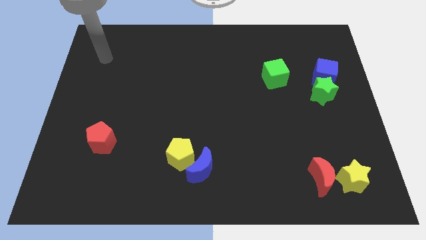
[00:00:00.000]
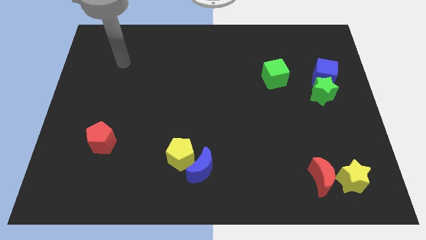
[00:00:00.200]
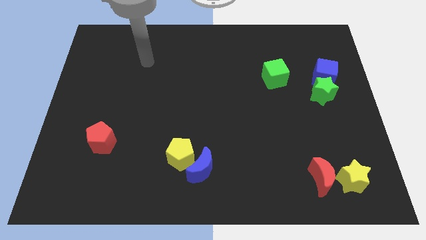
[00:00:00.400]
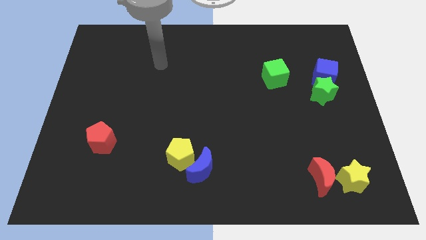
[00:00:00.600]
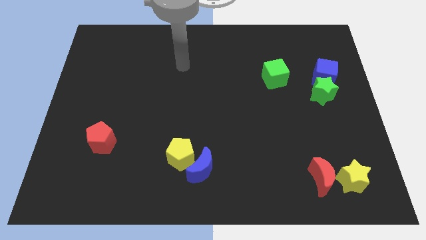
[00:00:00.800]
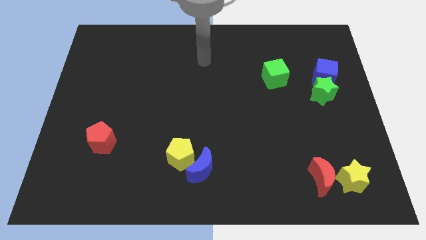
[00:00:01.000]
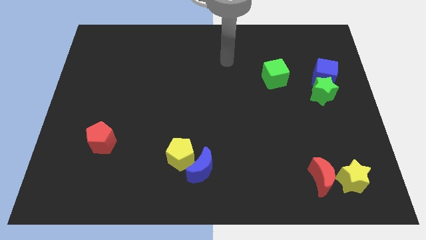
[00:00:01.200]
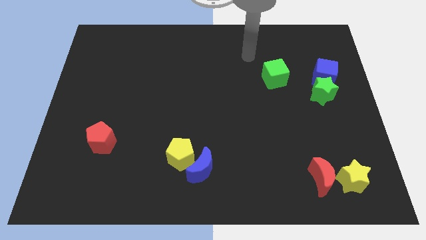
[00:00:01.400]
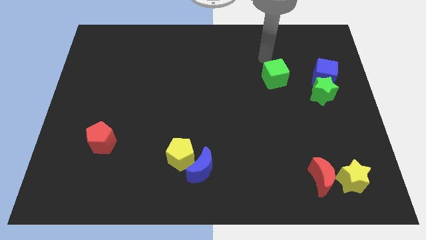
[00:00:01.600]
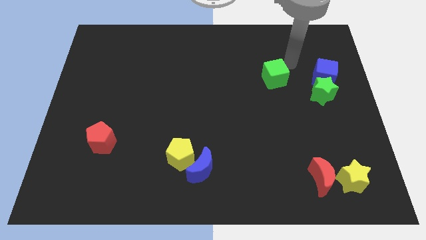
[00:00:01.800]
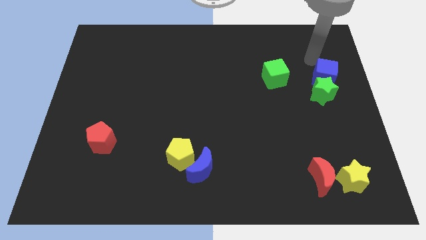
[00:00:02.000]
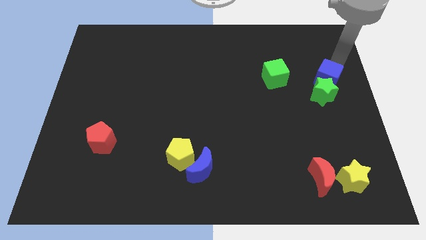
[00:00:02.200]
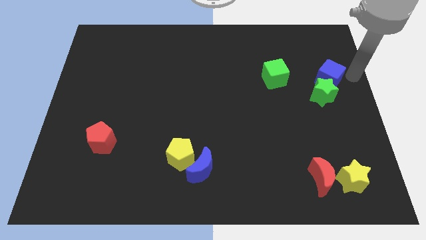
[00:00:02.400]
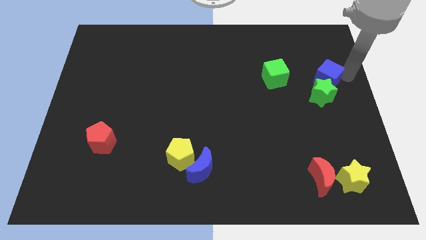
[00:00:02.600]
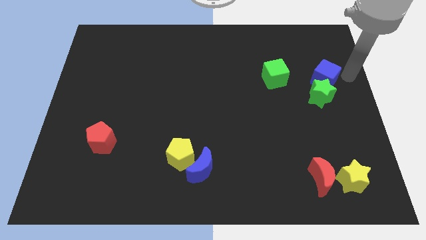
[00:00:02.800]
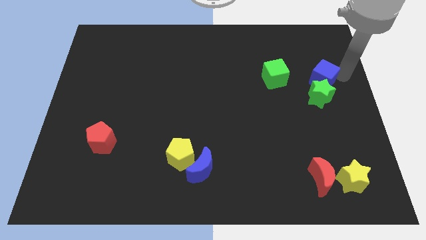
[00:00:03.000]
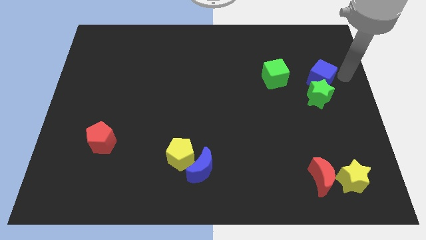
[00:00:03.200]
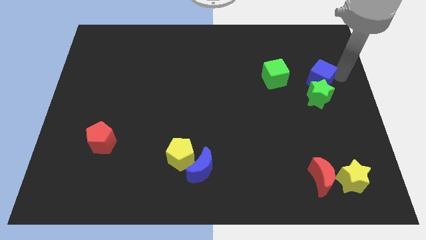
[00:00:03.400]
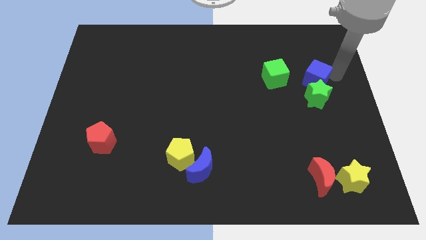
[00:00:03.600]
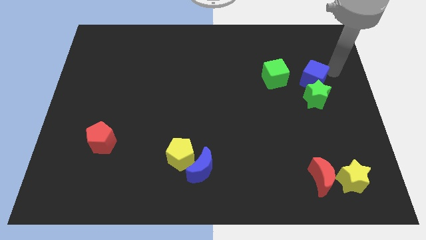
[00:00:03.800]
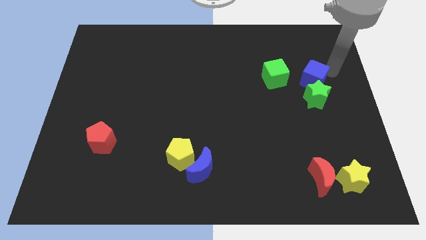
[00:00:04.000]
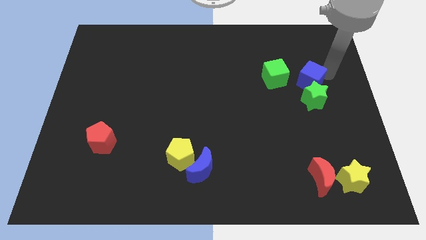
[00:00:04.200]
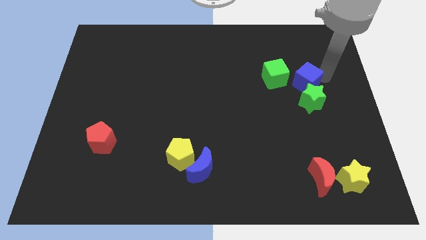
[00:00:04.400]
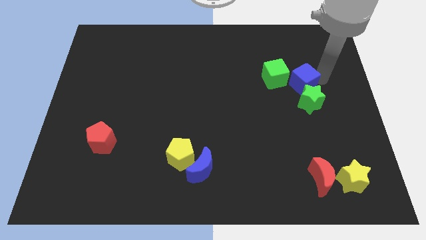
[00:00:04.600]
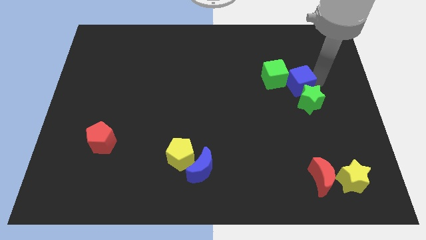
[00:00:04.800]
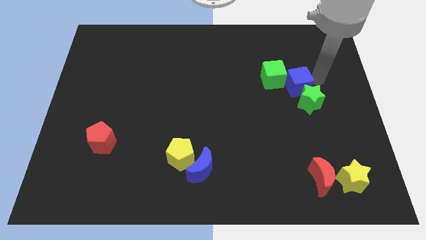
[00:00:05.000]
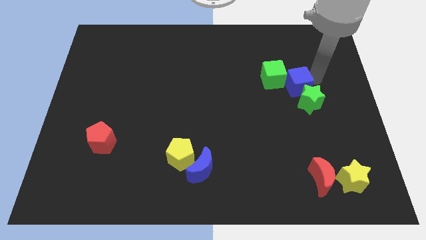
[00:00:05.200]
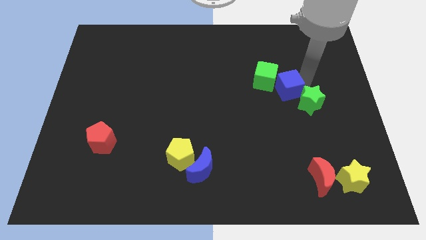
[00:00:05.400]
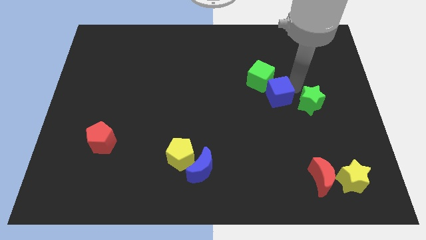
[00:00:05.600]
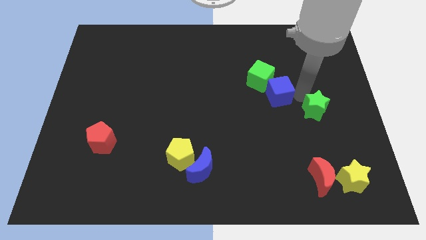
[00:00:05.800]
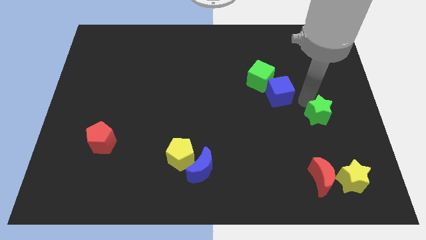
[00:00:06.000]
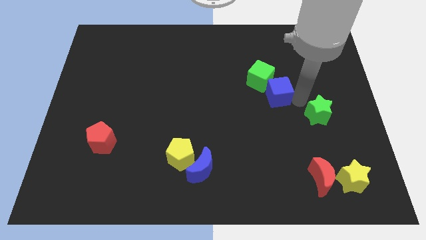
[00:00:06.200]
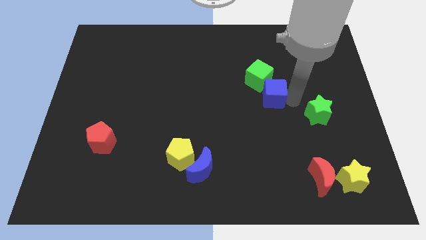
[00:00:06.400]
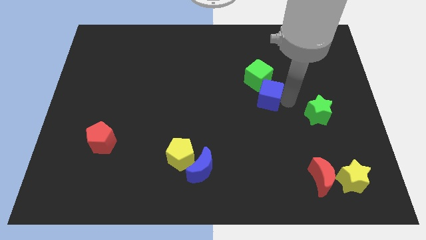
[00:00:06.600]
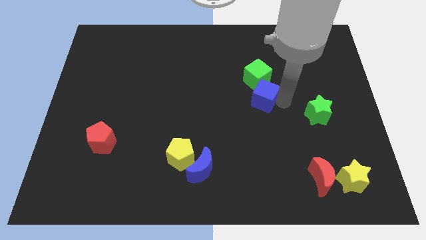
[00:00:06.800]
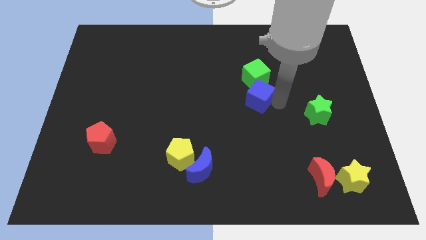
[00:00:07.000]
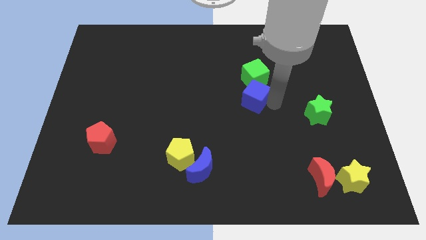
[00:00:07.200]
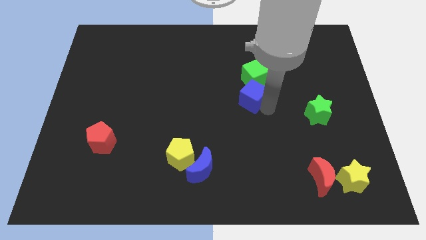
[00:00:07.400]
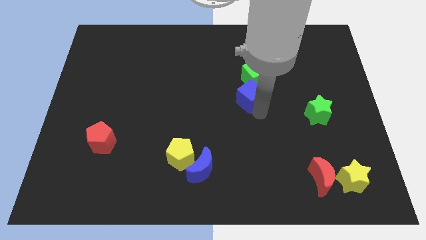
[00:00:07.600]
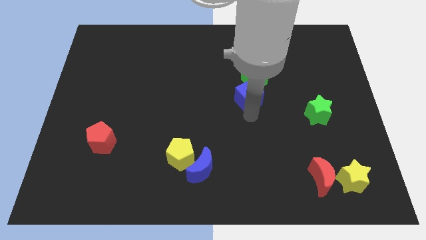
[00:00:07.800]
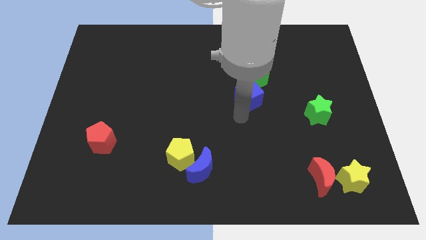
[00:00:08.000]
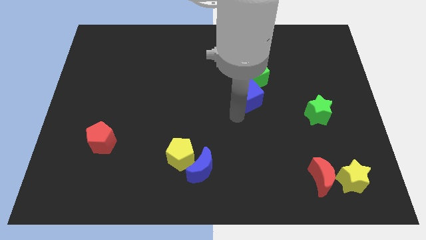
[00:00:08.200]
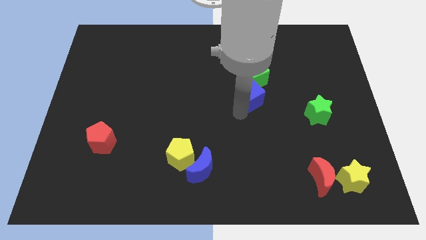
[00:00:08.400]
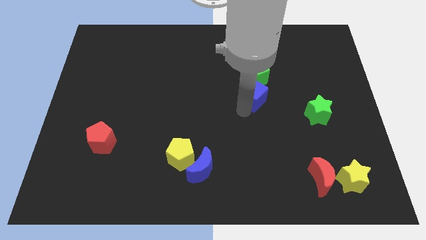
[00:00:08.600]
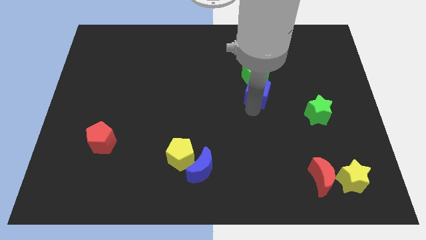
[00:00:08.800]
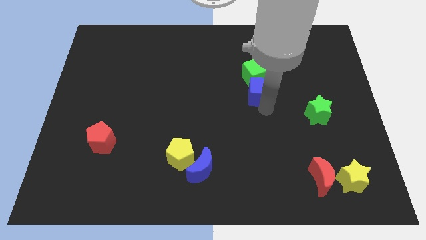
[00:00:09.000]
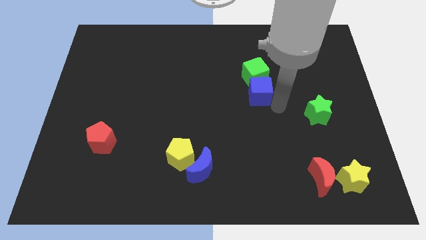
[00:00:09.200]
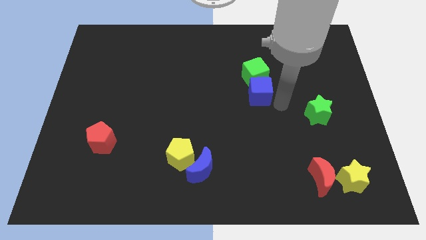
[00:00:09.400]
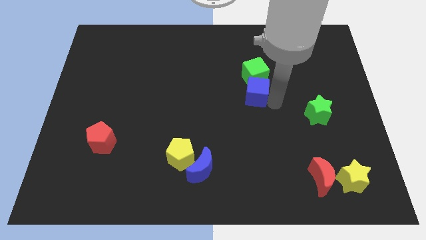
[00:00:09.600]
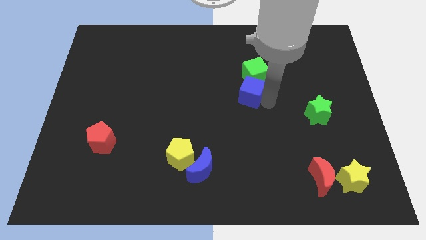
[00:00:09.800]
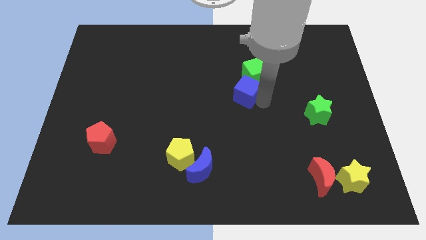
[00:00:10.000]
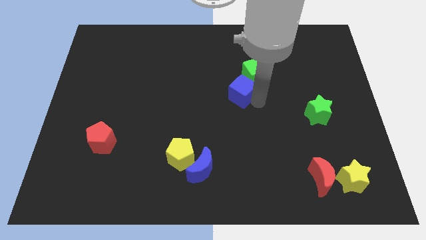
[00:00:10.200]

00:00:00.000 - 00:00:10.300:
slide the blue cube to the left

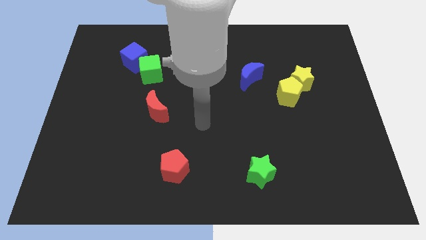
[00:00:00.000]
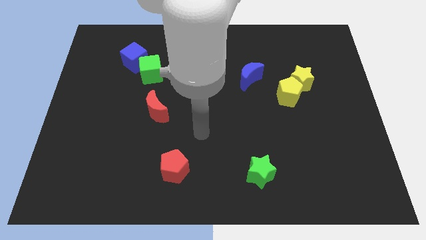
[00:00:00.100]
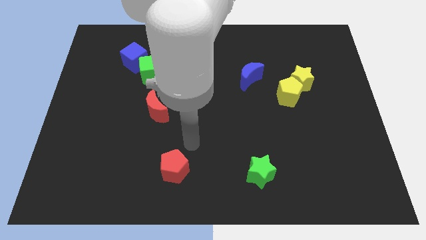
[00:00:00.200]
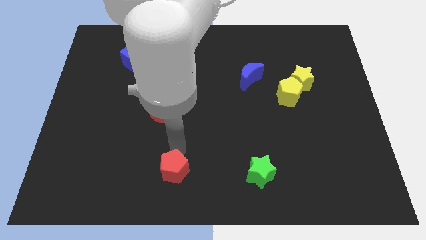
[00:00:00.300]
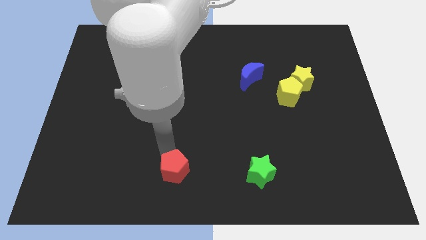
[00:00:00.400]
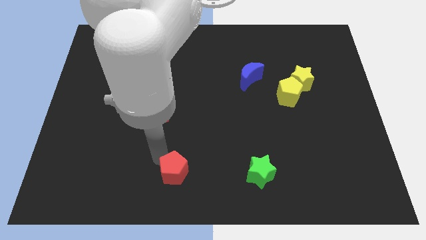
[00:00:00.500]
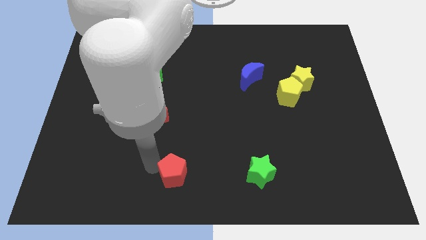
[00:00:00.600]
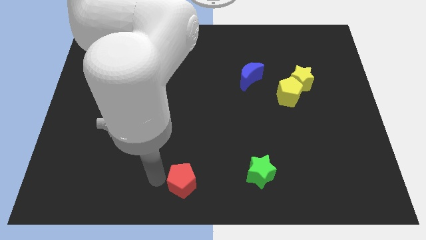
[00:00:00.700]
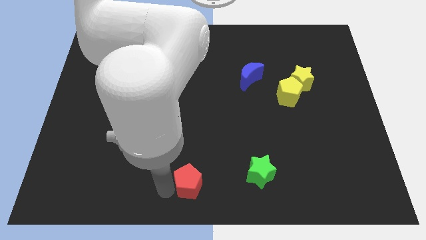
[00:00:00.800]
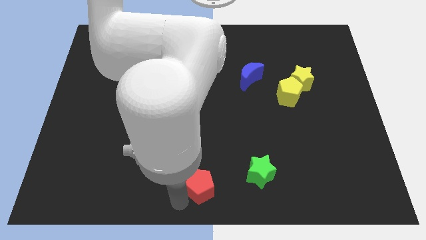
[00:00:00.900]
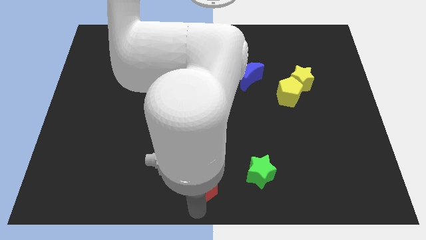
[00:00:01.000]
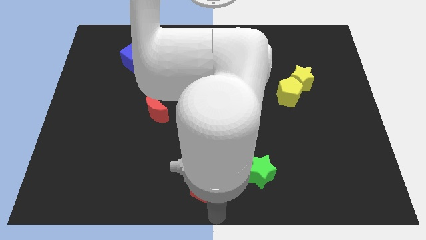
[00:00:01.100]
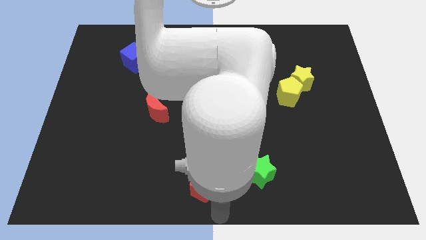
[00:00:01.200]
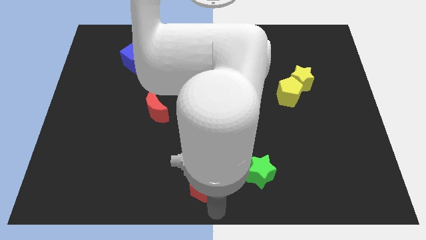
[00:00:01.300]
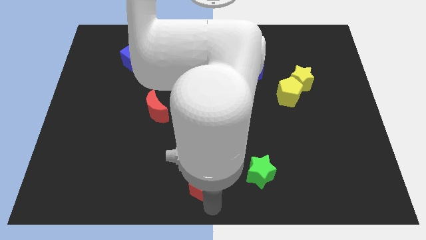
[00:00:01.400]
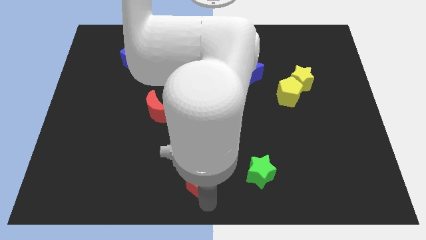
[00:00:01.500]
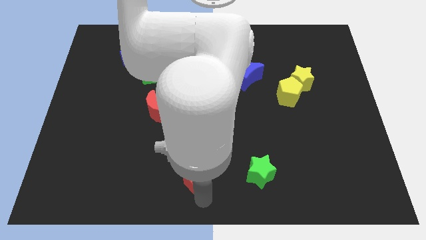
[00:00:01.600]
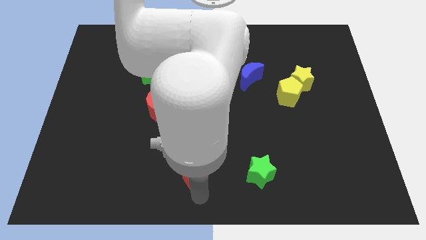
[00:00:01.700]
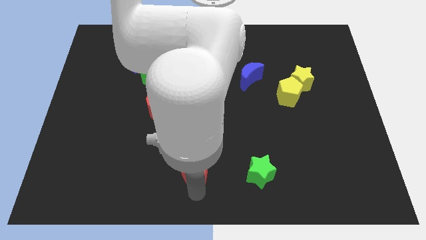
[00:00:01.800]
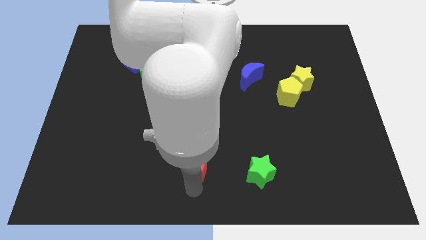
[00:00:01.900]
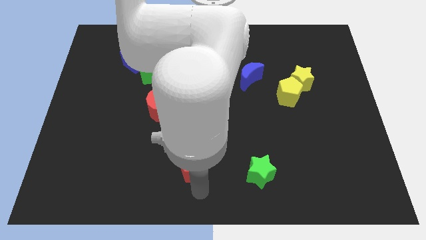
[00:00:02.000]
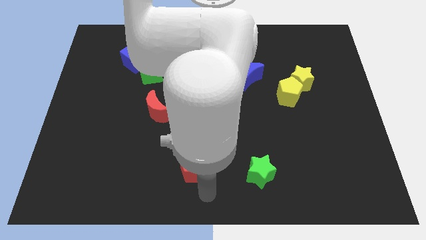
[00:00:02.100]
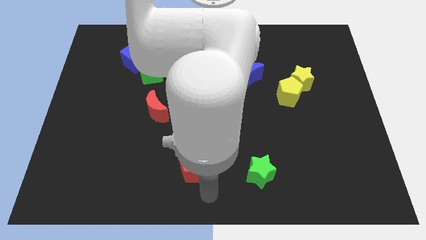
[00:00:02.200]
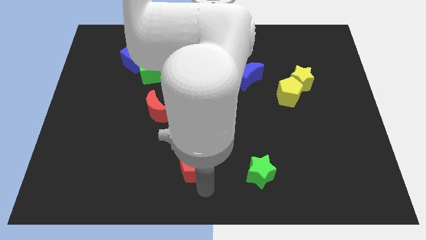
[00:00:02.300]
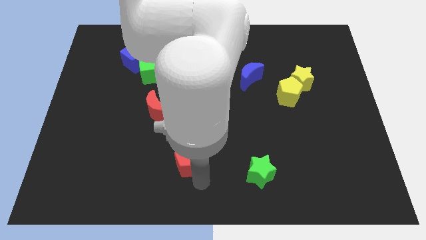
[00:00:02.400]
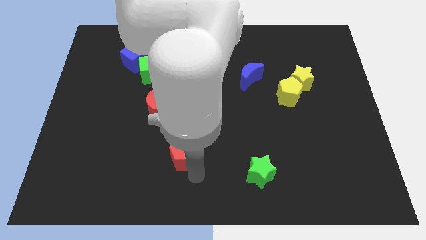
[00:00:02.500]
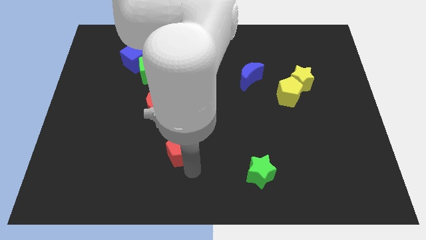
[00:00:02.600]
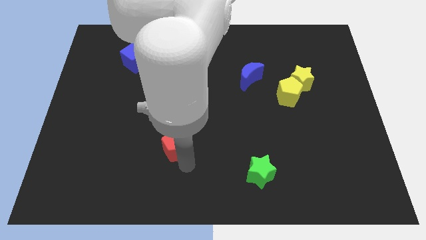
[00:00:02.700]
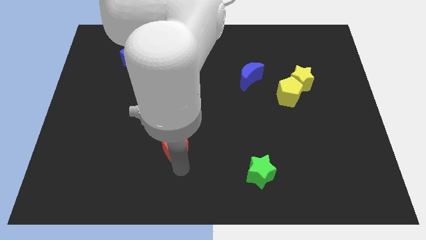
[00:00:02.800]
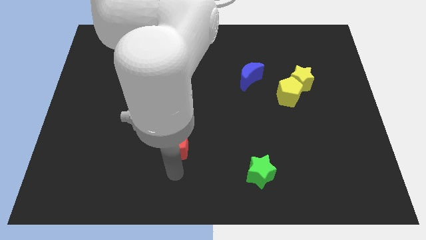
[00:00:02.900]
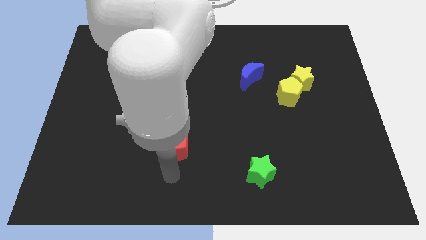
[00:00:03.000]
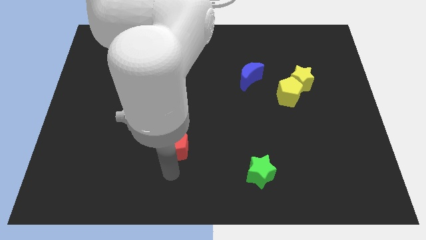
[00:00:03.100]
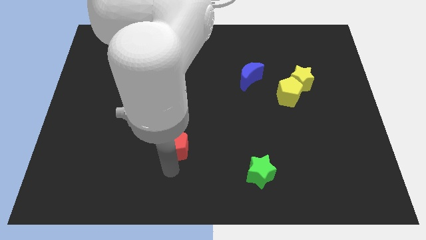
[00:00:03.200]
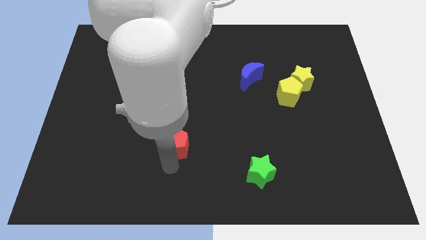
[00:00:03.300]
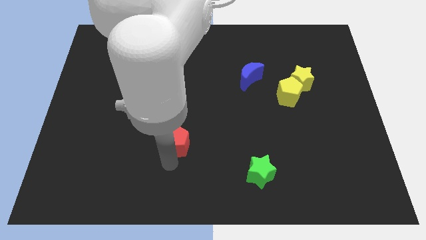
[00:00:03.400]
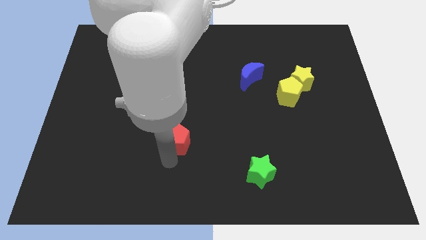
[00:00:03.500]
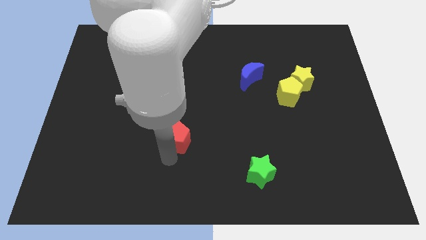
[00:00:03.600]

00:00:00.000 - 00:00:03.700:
push the red pentagon somewhat up
